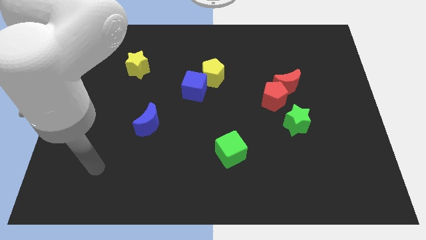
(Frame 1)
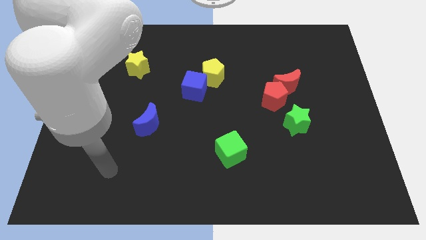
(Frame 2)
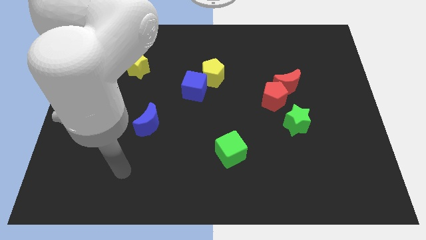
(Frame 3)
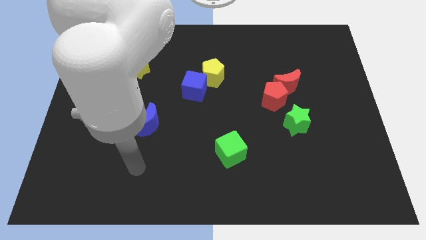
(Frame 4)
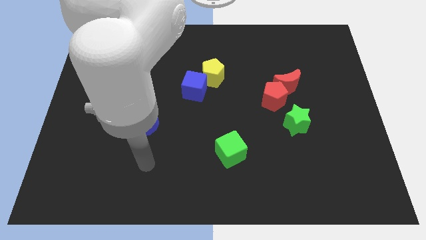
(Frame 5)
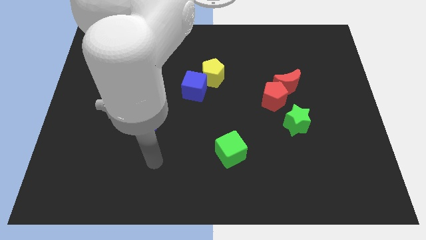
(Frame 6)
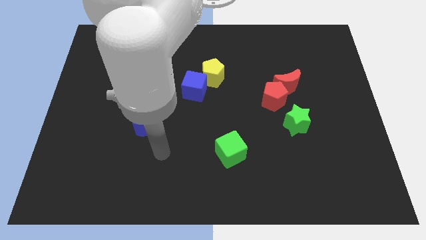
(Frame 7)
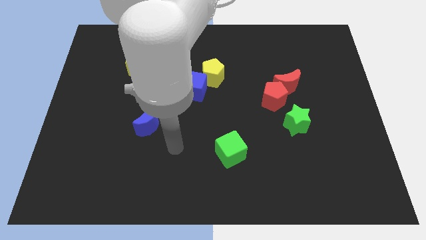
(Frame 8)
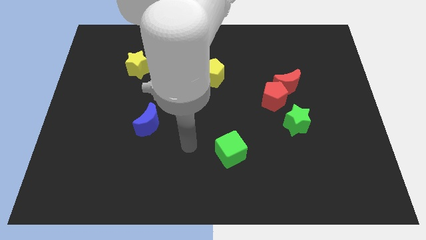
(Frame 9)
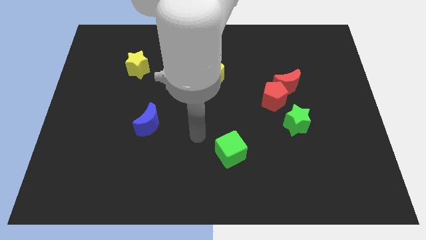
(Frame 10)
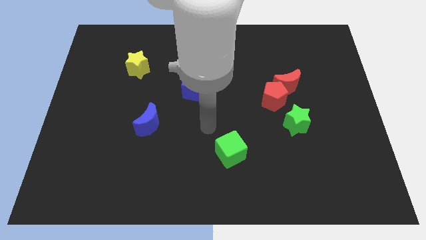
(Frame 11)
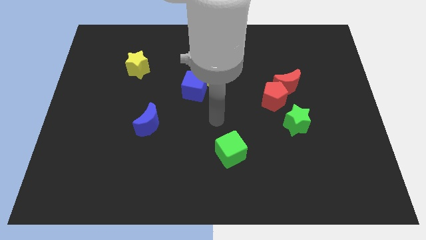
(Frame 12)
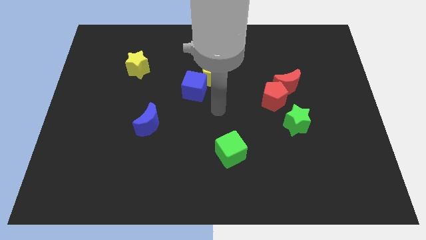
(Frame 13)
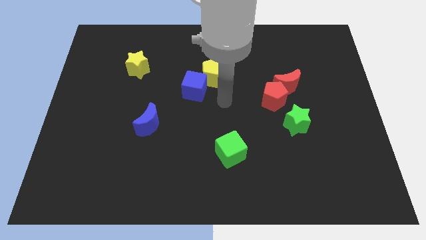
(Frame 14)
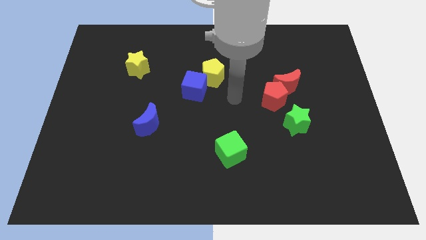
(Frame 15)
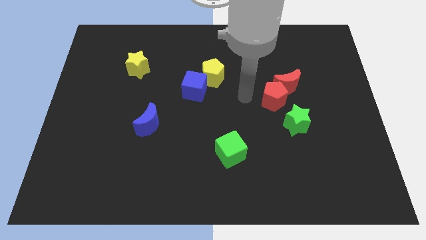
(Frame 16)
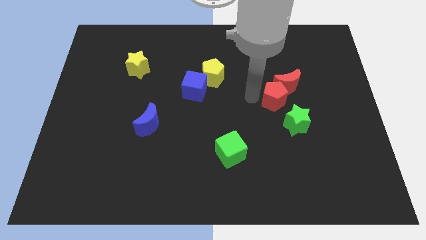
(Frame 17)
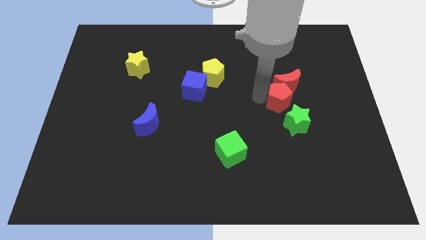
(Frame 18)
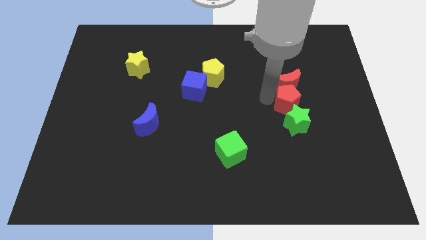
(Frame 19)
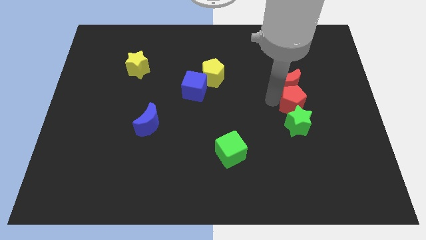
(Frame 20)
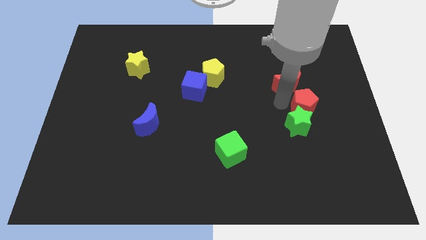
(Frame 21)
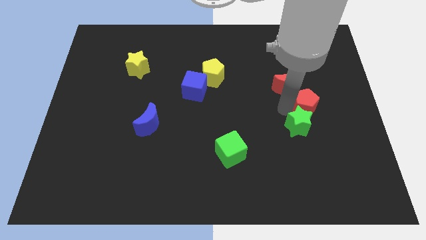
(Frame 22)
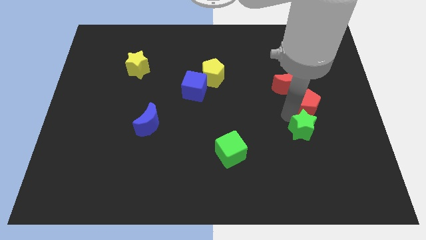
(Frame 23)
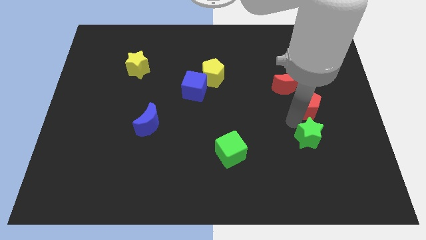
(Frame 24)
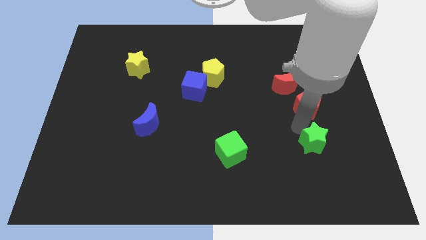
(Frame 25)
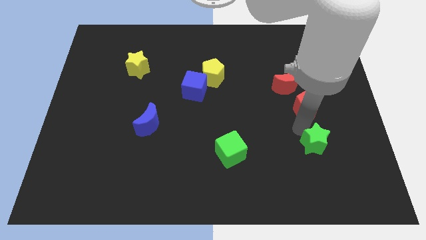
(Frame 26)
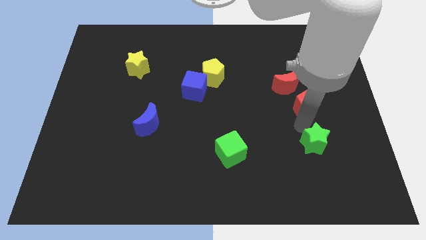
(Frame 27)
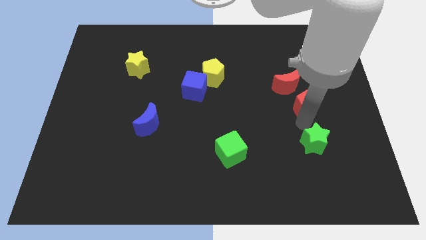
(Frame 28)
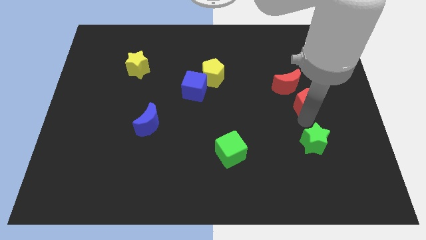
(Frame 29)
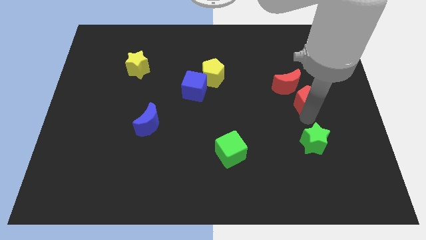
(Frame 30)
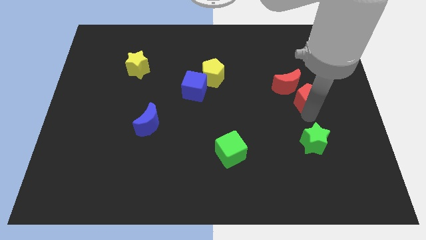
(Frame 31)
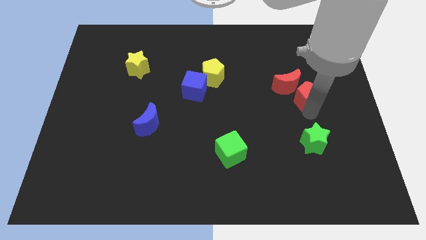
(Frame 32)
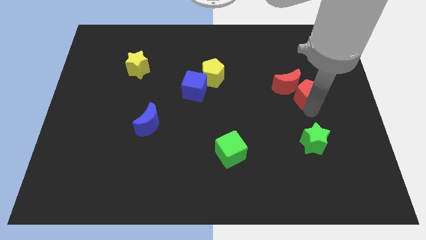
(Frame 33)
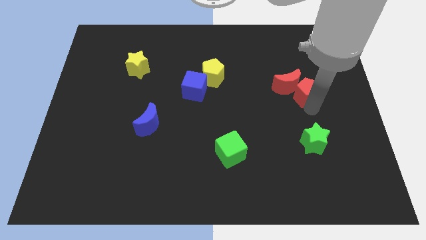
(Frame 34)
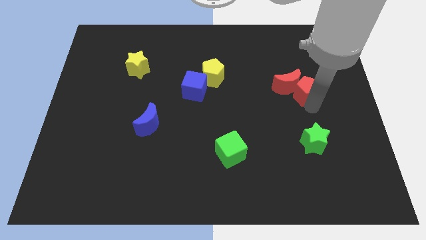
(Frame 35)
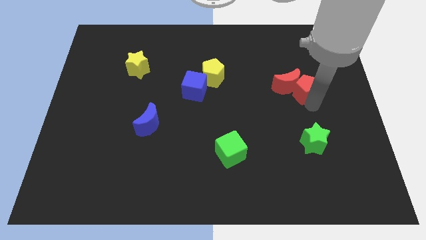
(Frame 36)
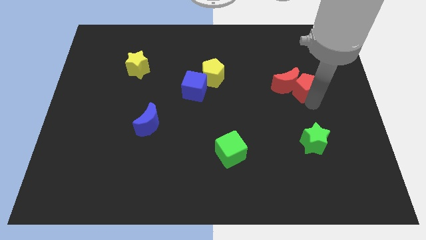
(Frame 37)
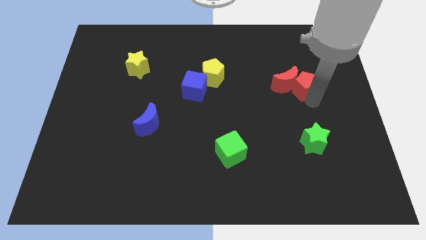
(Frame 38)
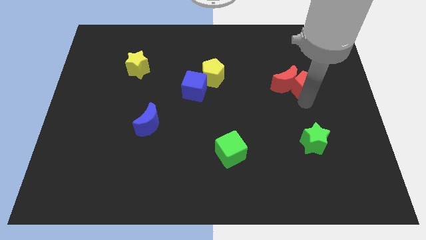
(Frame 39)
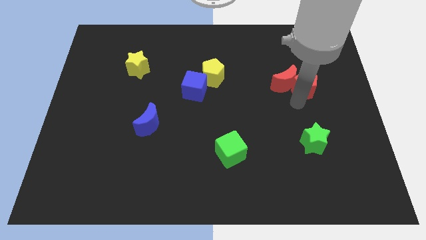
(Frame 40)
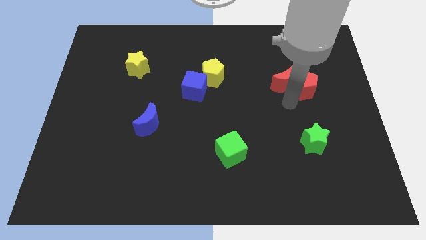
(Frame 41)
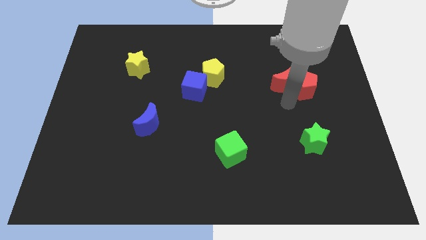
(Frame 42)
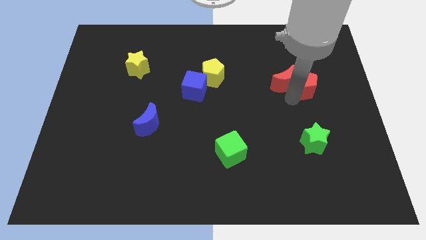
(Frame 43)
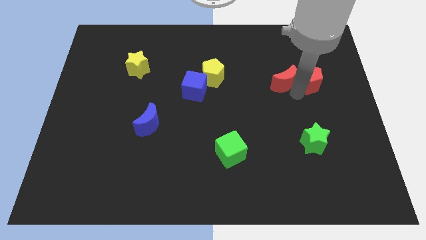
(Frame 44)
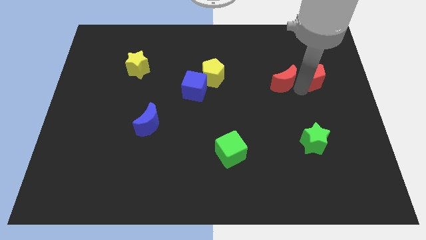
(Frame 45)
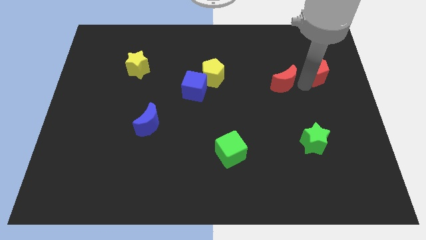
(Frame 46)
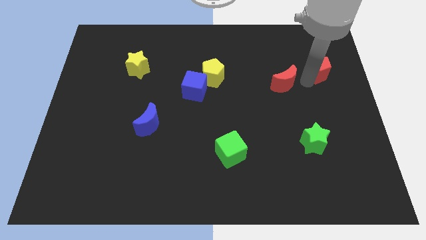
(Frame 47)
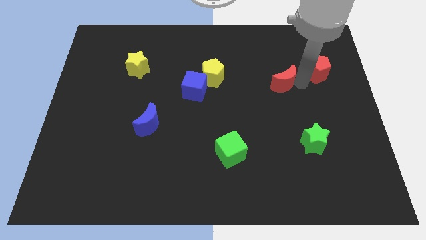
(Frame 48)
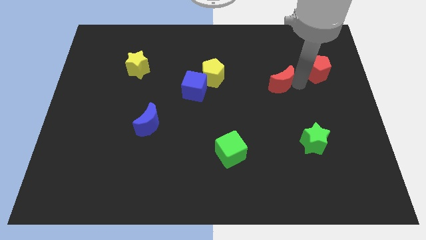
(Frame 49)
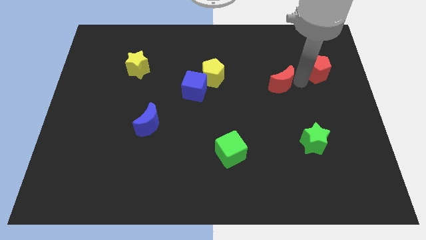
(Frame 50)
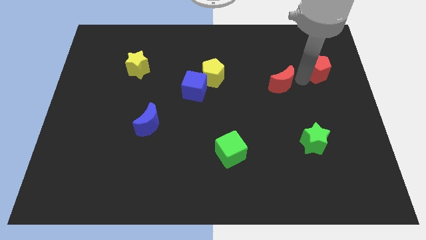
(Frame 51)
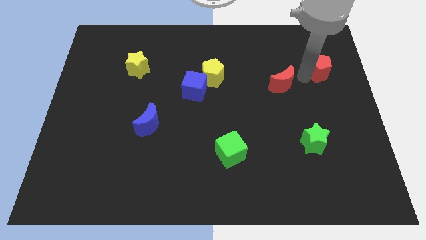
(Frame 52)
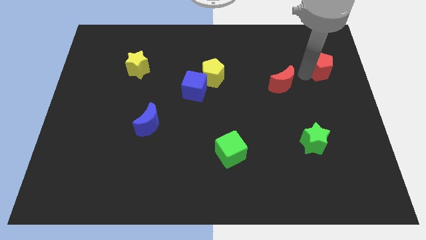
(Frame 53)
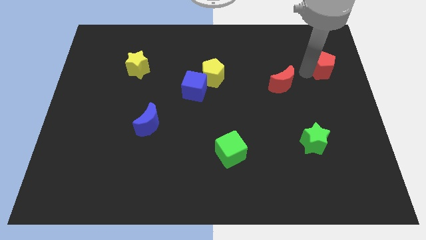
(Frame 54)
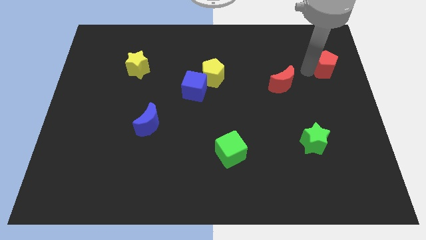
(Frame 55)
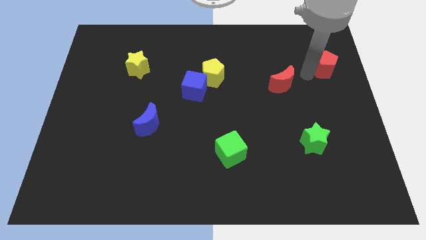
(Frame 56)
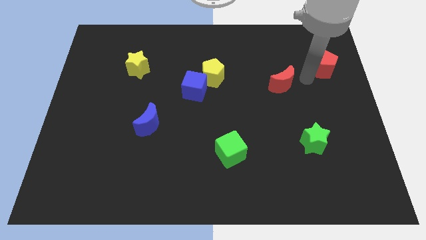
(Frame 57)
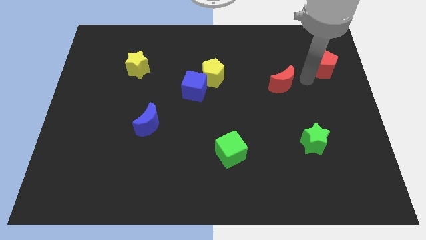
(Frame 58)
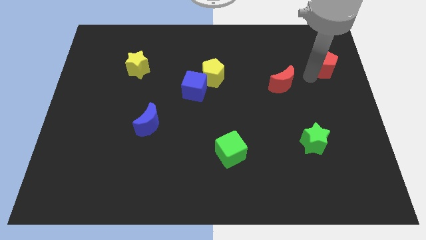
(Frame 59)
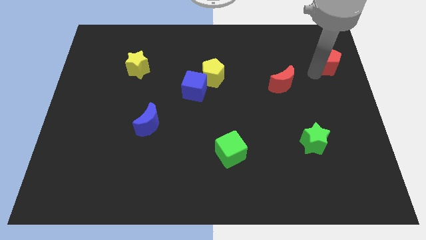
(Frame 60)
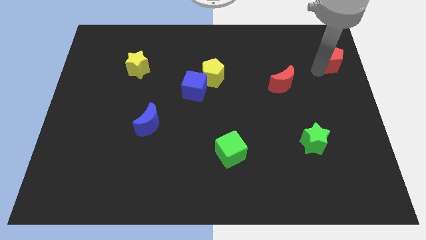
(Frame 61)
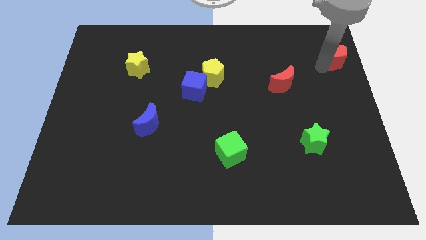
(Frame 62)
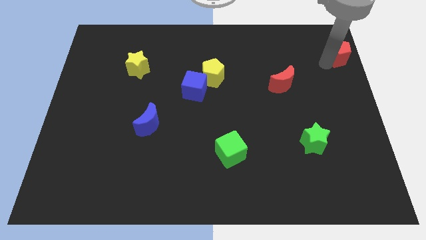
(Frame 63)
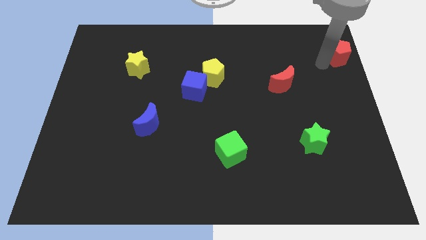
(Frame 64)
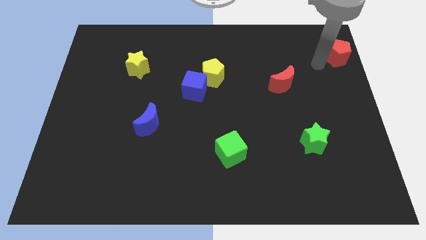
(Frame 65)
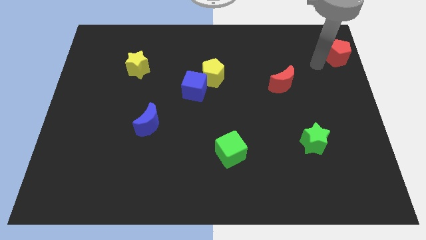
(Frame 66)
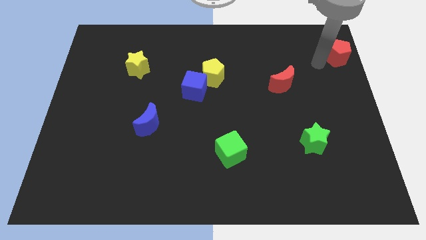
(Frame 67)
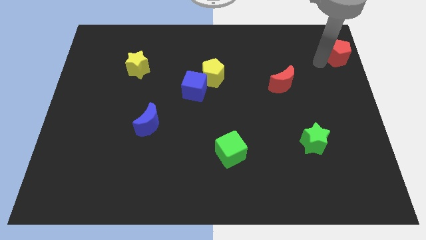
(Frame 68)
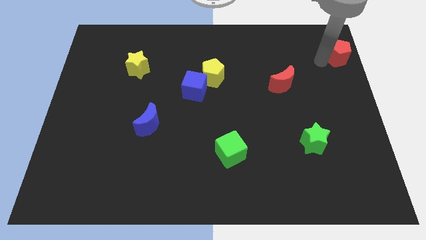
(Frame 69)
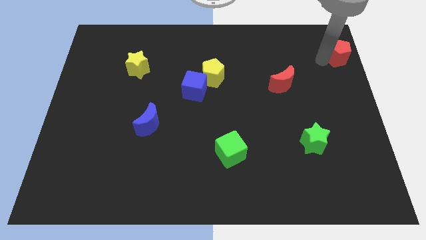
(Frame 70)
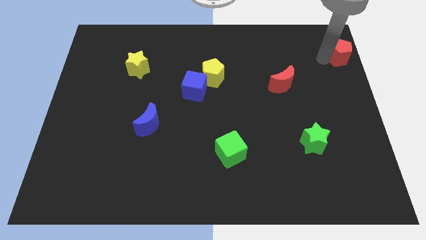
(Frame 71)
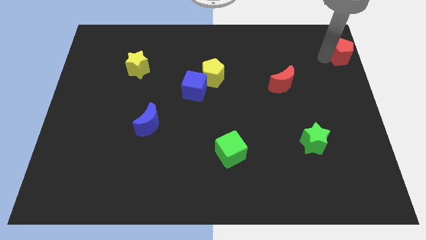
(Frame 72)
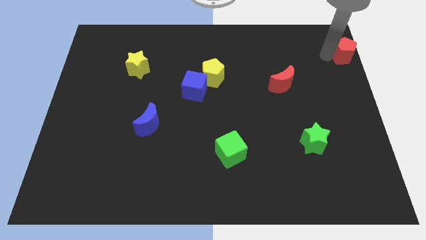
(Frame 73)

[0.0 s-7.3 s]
put the red pentagon to the top right corner
